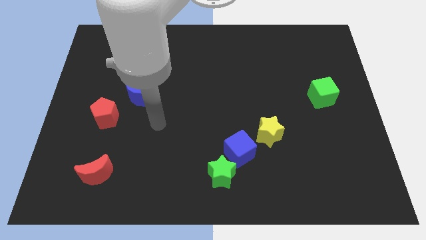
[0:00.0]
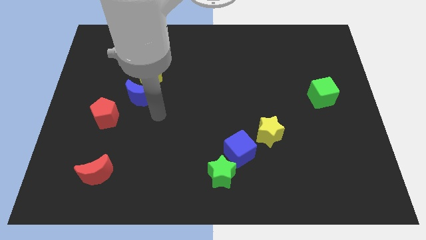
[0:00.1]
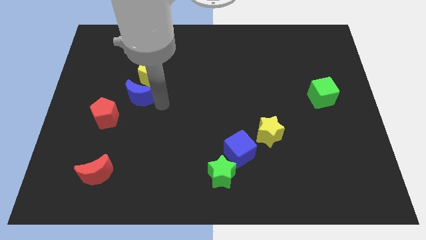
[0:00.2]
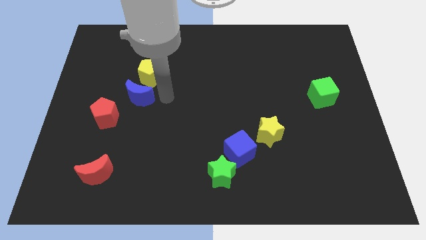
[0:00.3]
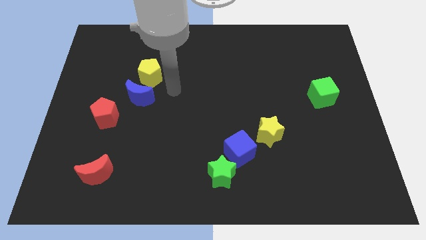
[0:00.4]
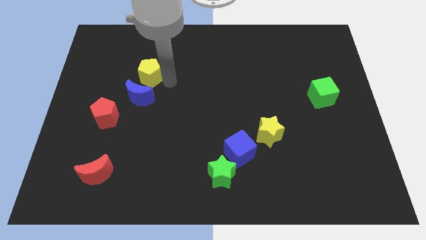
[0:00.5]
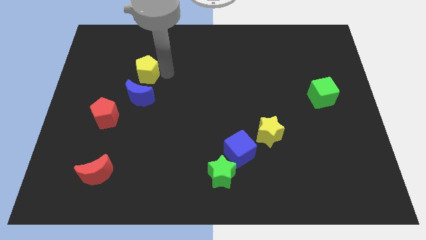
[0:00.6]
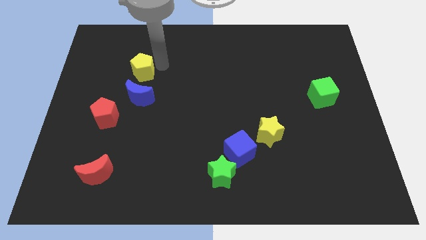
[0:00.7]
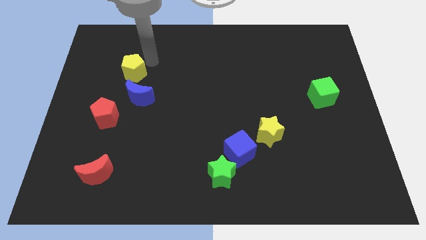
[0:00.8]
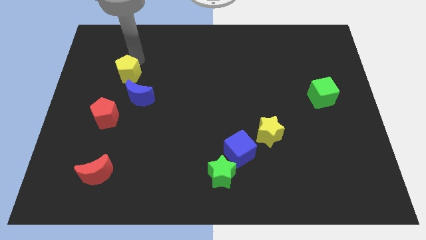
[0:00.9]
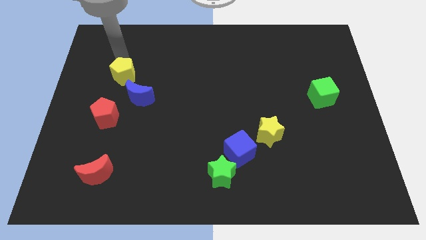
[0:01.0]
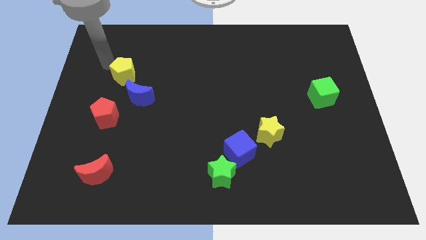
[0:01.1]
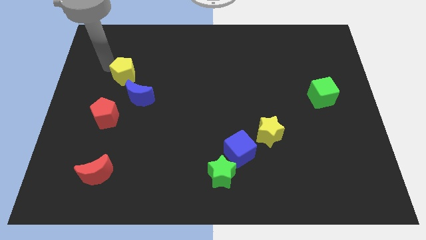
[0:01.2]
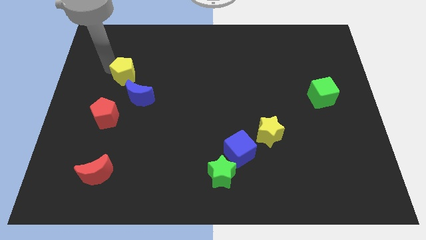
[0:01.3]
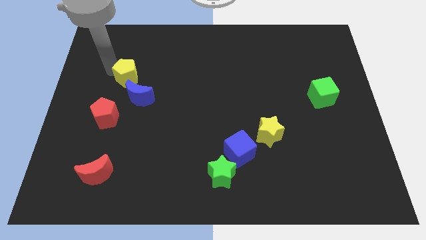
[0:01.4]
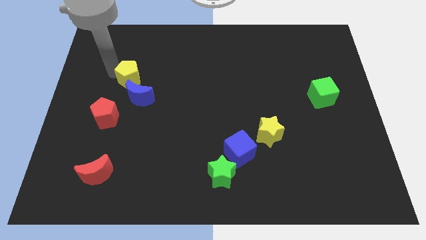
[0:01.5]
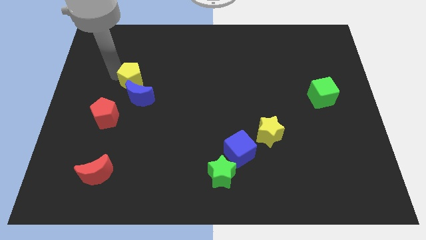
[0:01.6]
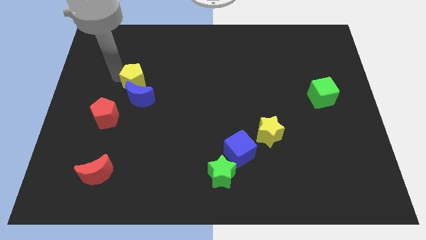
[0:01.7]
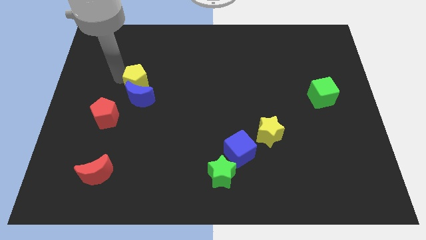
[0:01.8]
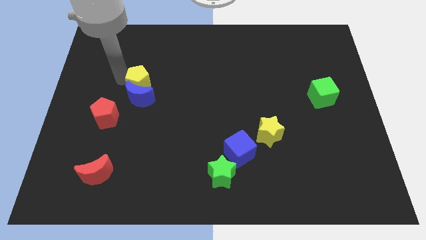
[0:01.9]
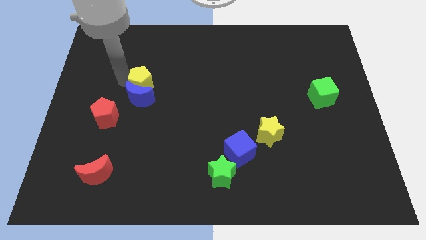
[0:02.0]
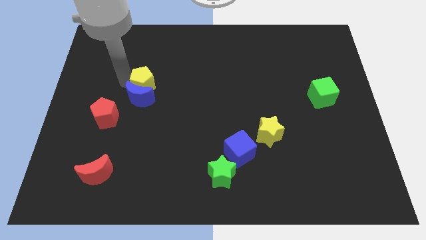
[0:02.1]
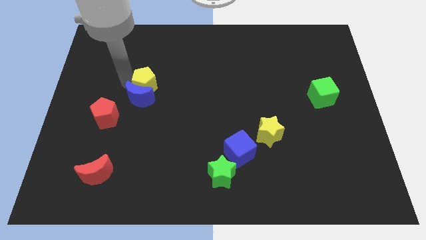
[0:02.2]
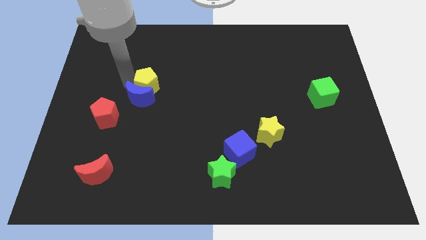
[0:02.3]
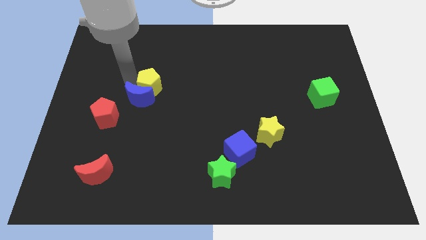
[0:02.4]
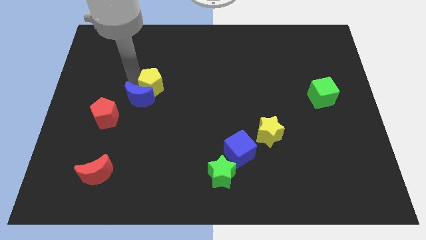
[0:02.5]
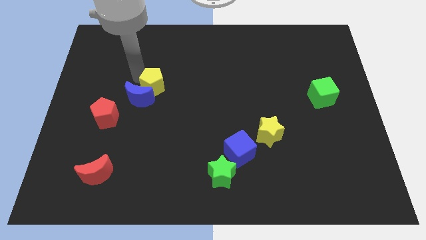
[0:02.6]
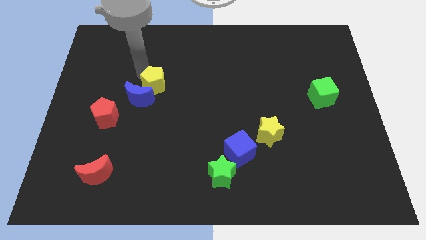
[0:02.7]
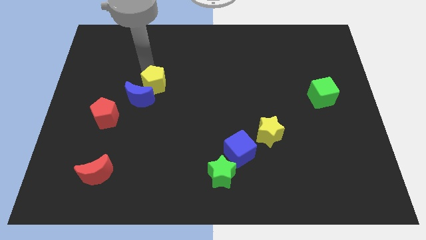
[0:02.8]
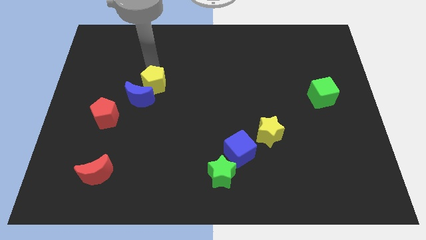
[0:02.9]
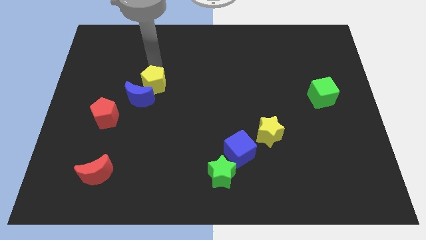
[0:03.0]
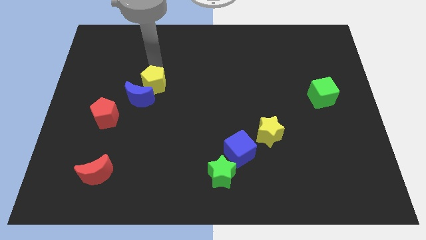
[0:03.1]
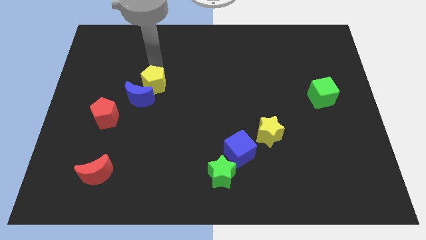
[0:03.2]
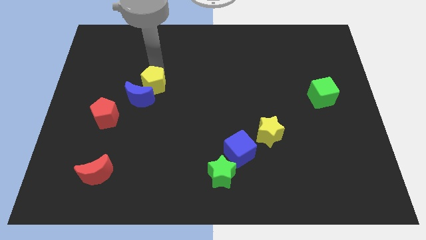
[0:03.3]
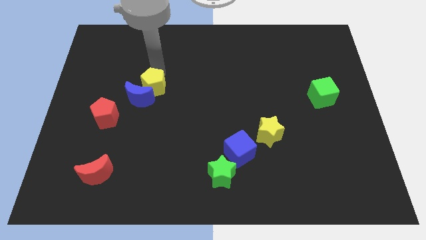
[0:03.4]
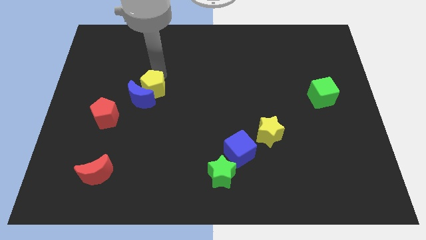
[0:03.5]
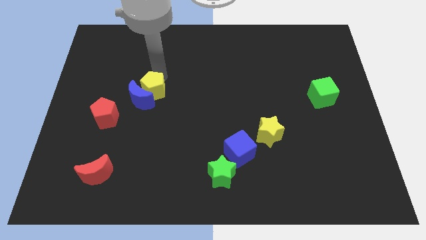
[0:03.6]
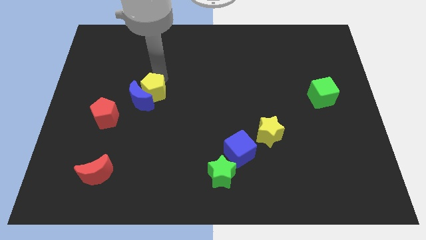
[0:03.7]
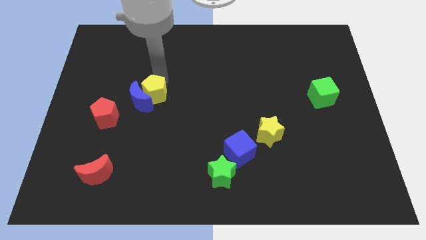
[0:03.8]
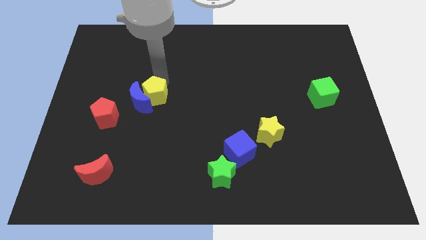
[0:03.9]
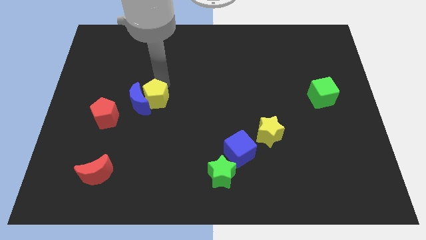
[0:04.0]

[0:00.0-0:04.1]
push the yellow pentagon a bit downwards

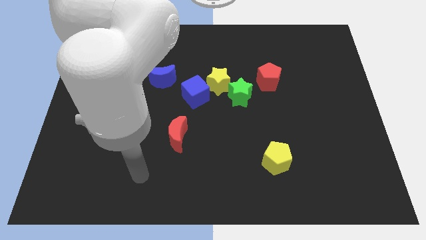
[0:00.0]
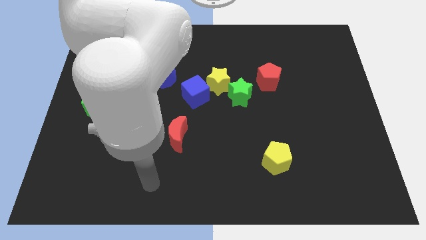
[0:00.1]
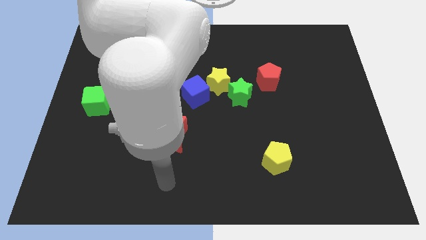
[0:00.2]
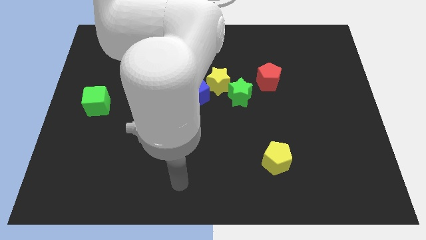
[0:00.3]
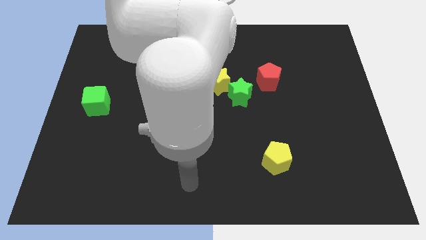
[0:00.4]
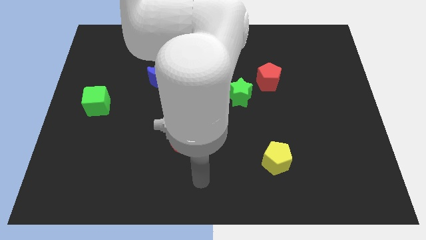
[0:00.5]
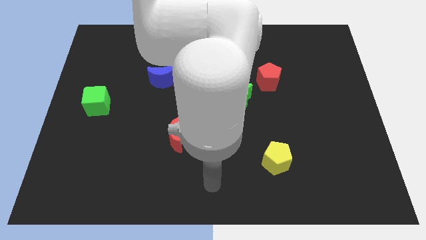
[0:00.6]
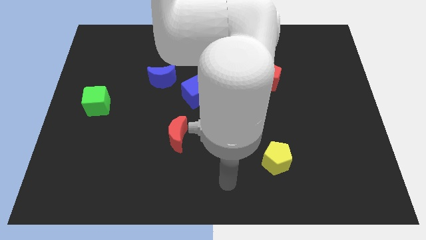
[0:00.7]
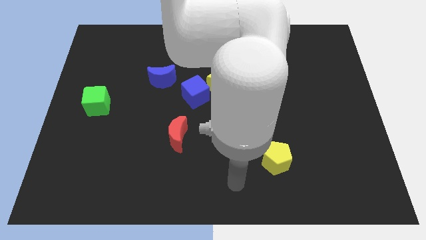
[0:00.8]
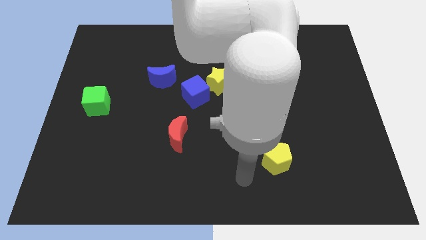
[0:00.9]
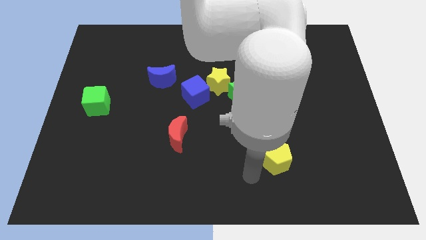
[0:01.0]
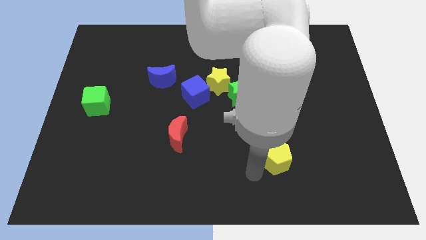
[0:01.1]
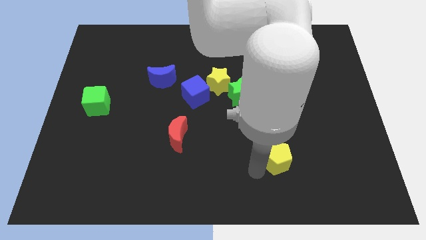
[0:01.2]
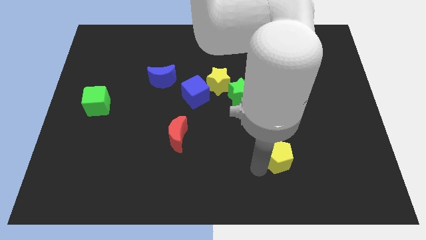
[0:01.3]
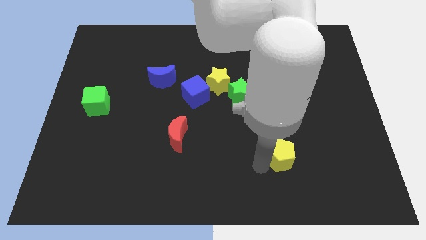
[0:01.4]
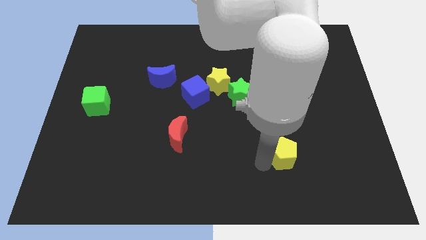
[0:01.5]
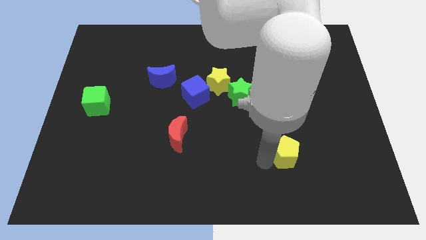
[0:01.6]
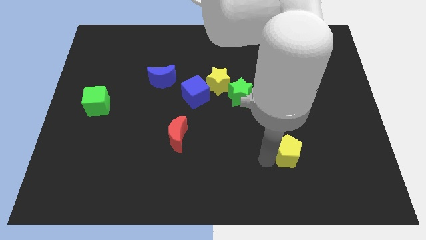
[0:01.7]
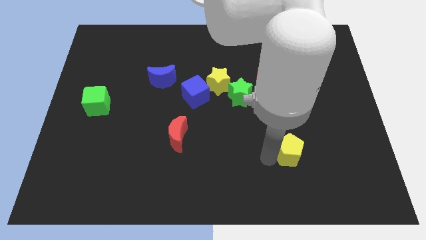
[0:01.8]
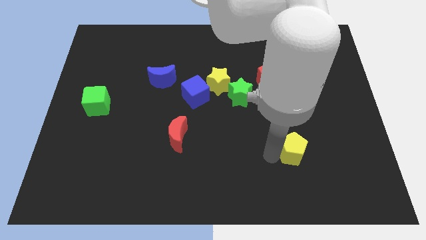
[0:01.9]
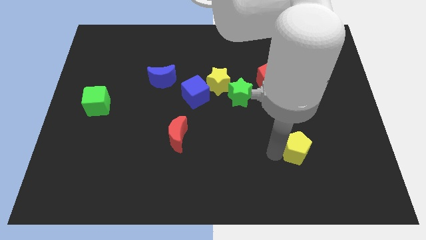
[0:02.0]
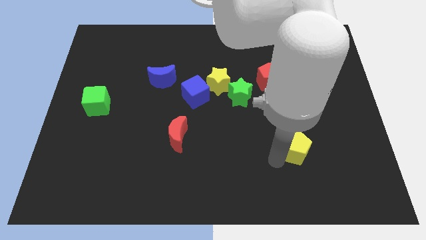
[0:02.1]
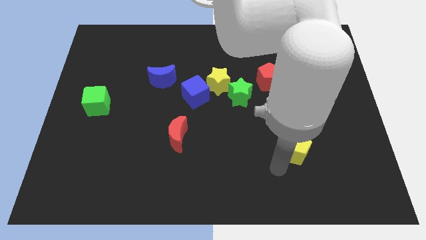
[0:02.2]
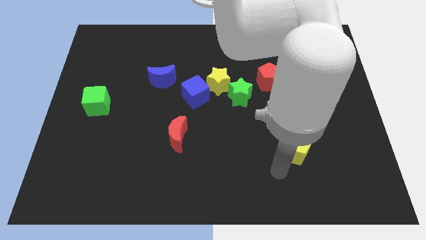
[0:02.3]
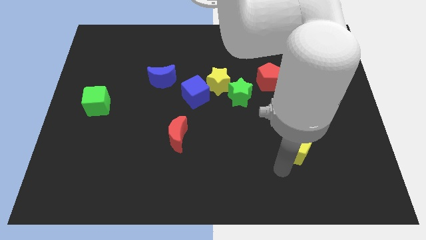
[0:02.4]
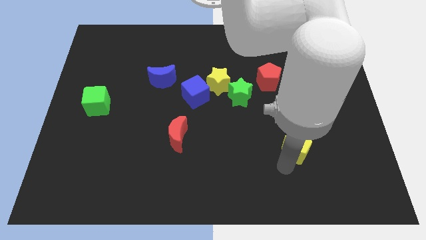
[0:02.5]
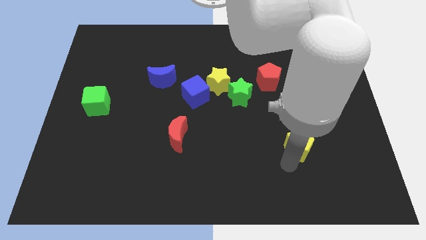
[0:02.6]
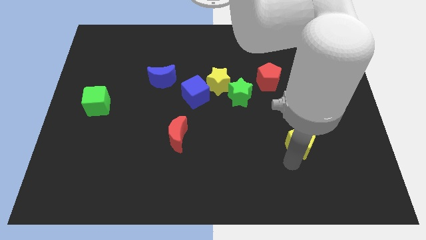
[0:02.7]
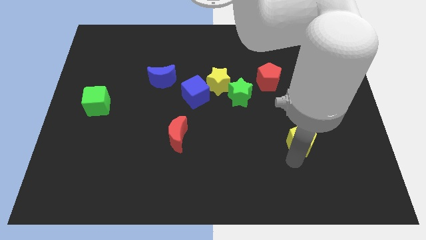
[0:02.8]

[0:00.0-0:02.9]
push the yellow pentagon slightly upwards and to the right diagonally

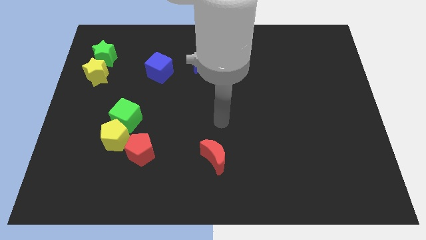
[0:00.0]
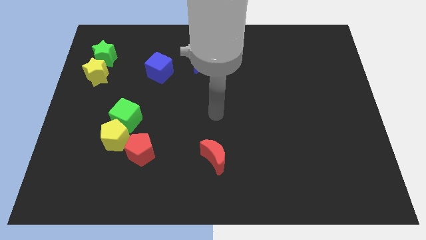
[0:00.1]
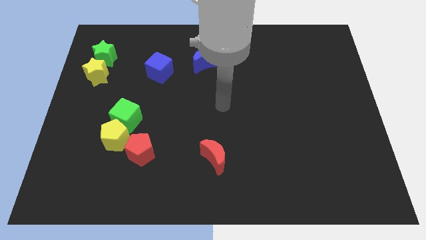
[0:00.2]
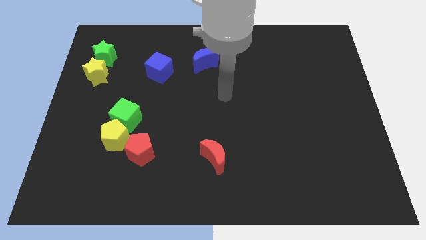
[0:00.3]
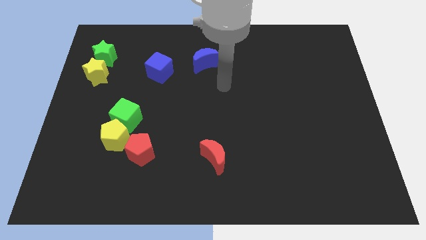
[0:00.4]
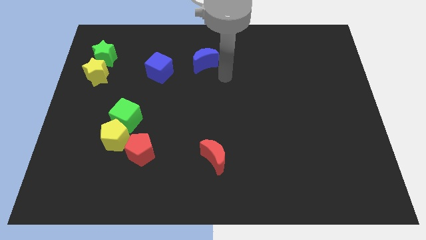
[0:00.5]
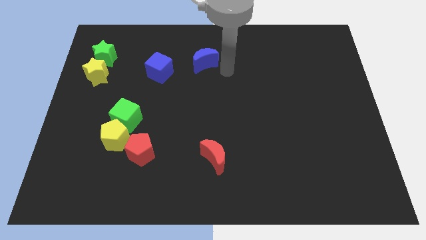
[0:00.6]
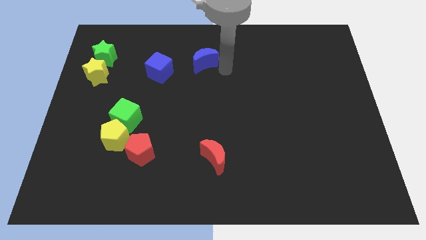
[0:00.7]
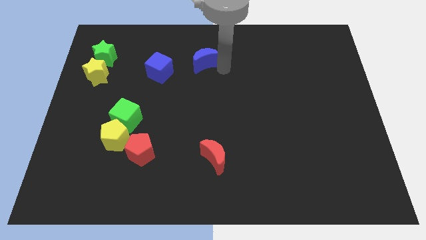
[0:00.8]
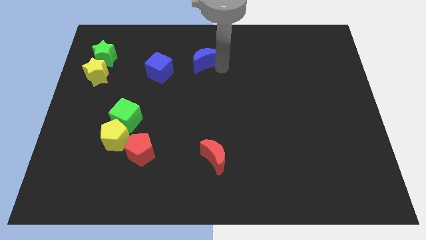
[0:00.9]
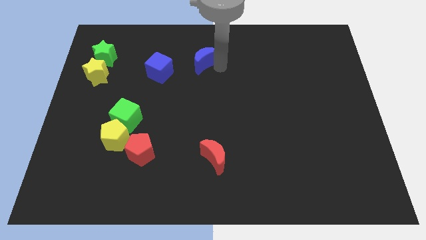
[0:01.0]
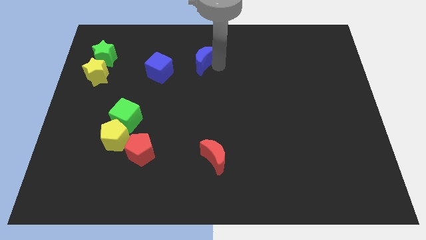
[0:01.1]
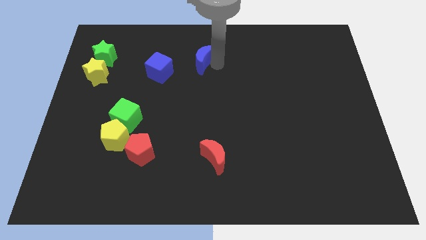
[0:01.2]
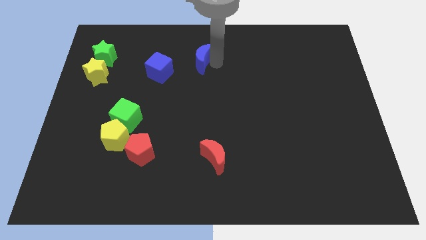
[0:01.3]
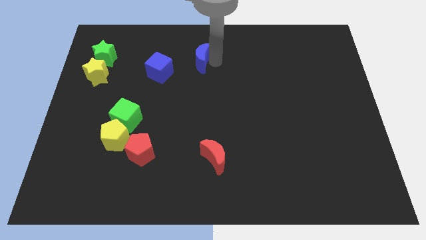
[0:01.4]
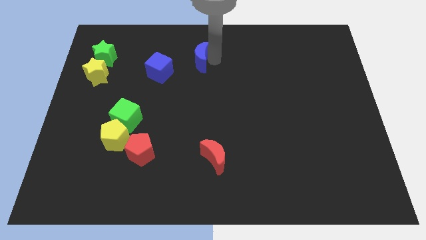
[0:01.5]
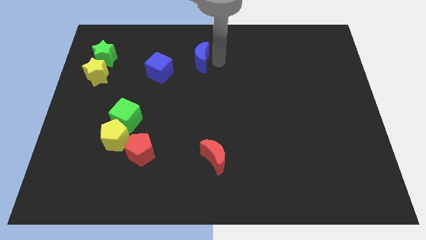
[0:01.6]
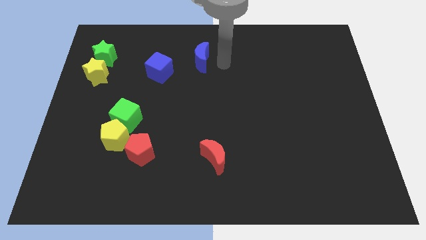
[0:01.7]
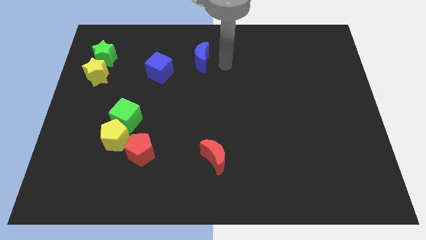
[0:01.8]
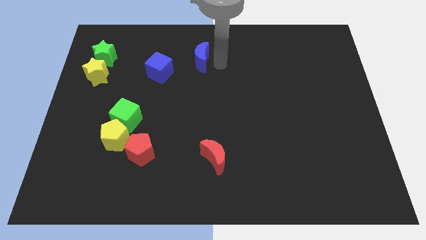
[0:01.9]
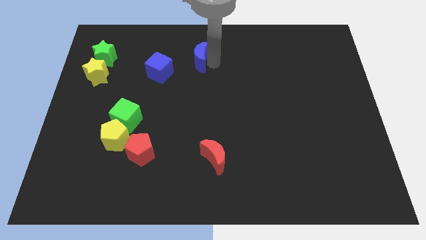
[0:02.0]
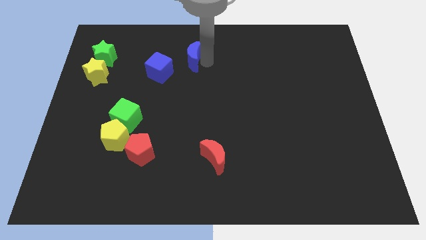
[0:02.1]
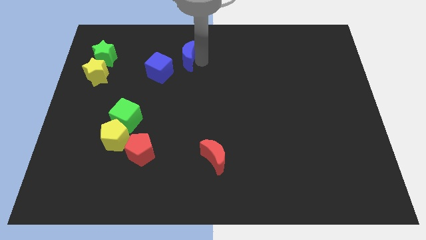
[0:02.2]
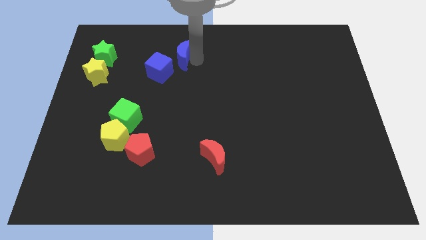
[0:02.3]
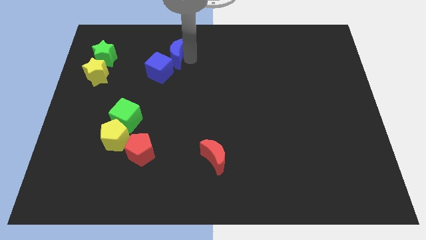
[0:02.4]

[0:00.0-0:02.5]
slightly push the blue moon to the left
